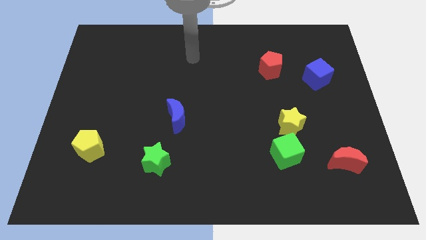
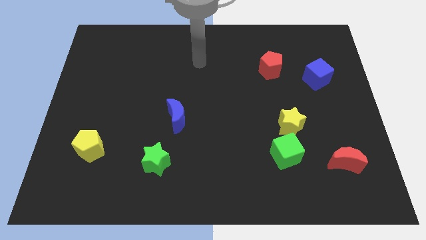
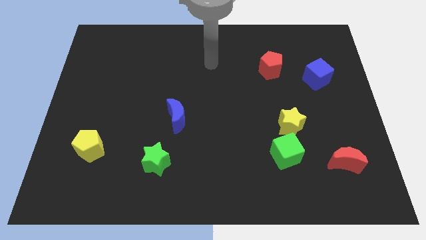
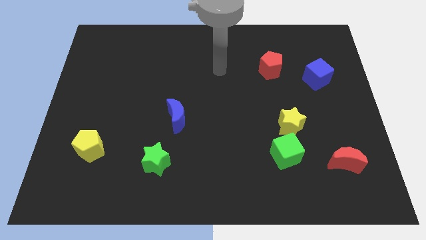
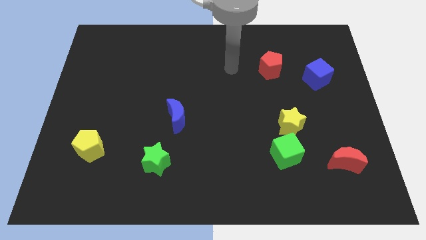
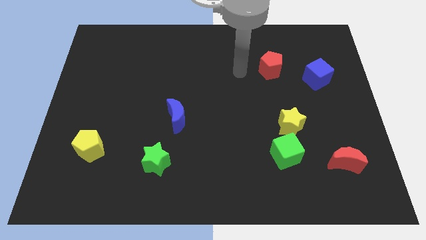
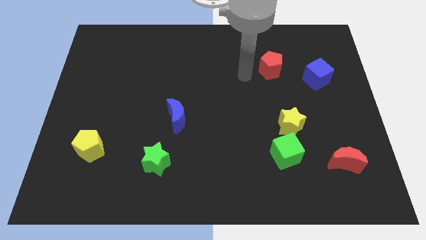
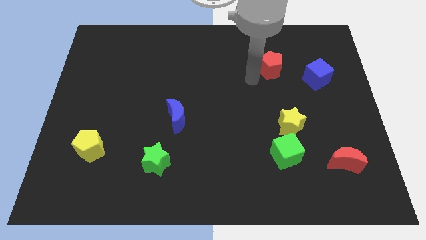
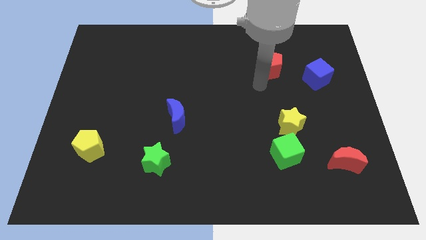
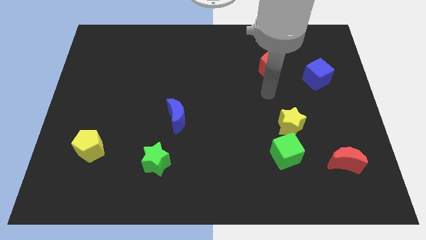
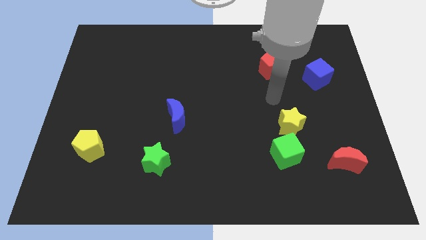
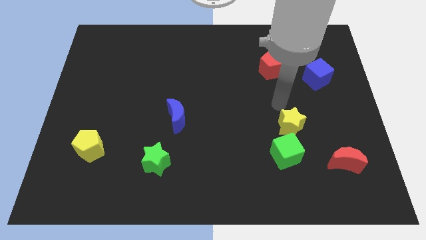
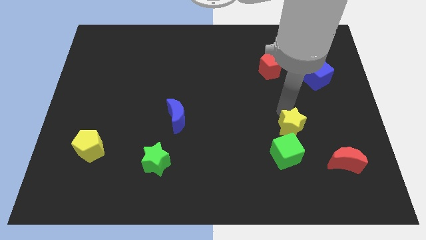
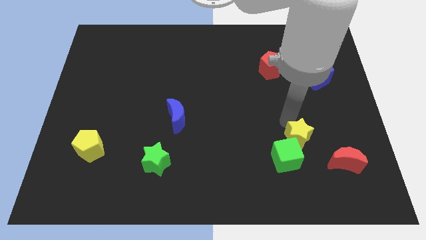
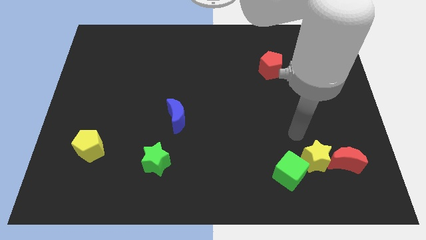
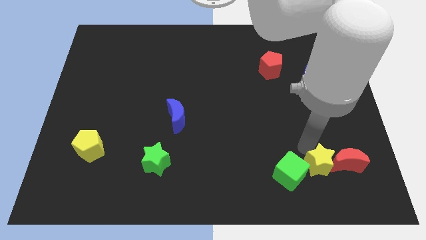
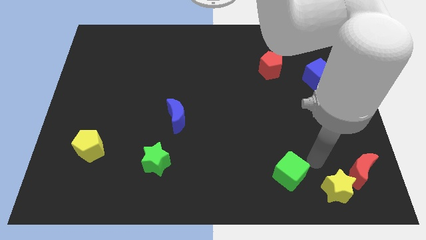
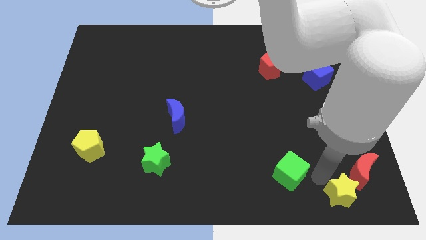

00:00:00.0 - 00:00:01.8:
pull the green cube apart from the yellow star

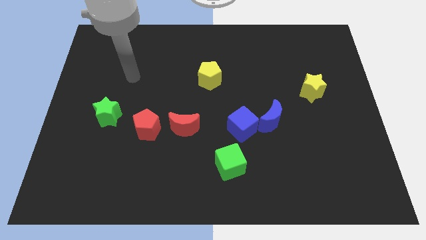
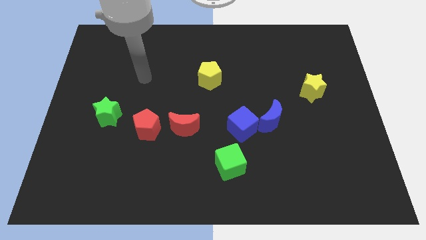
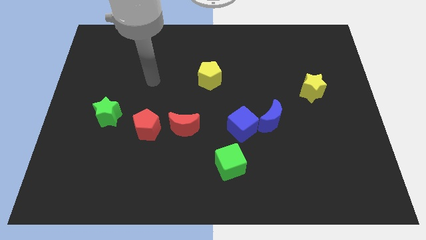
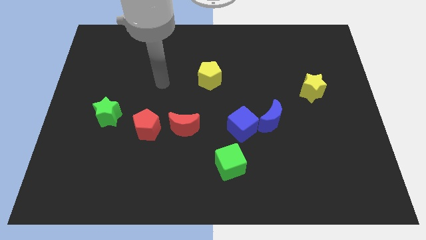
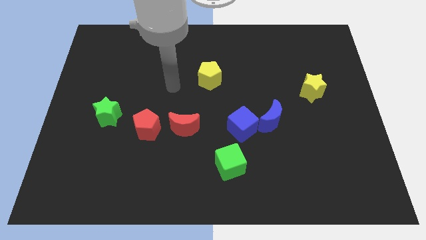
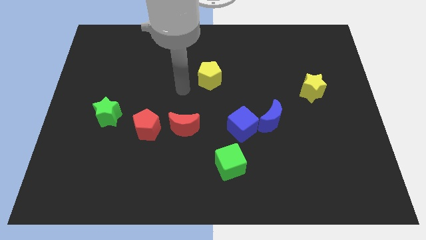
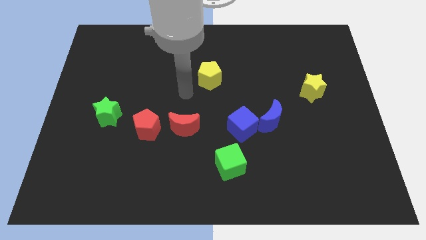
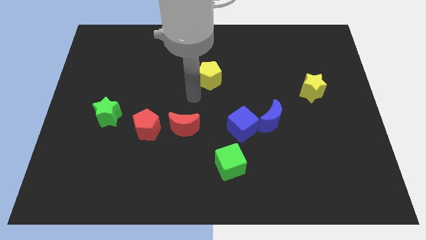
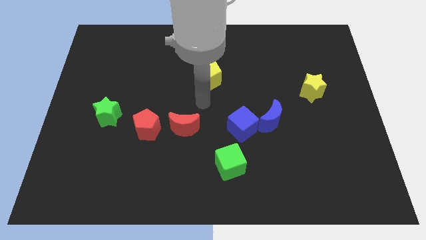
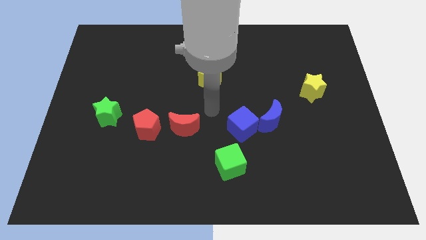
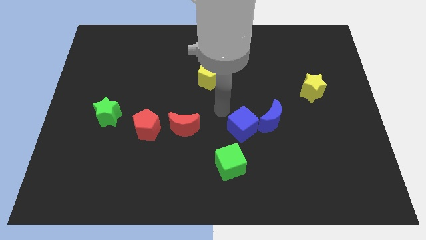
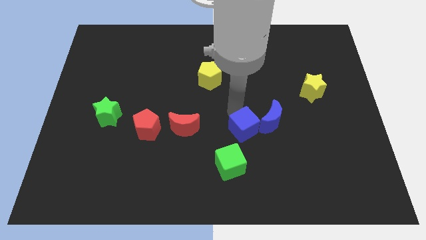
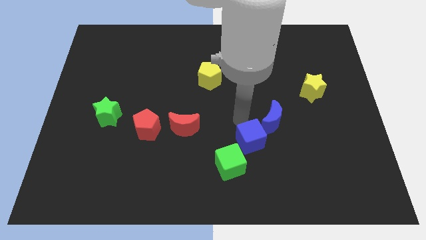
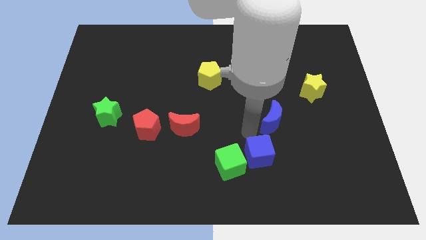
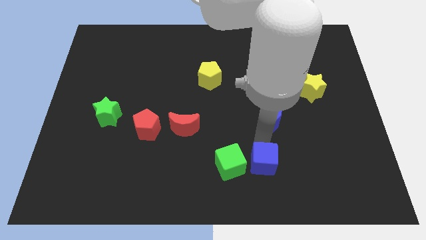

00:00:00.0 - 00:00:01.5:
pull the blue moon apart from the blue cube

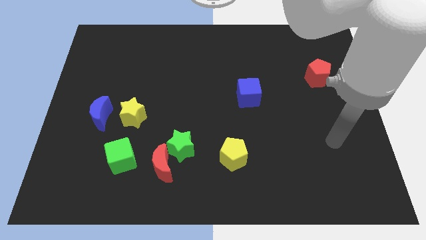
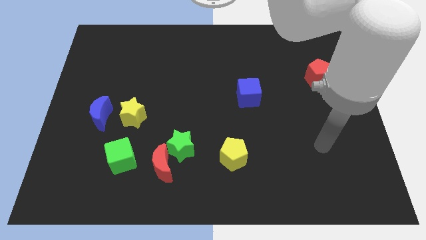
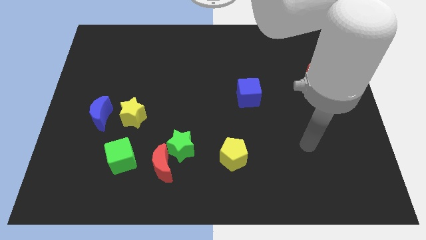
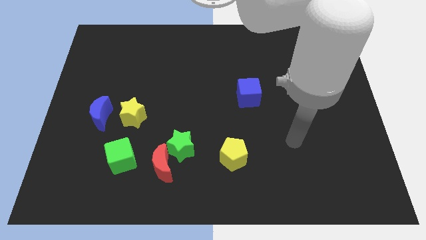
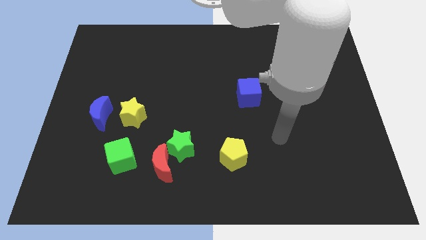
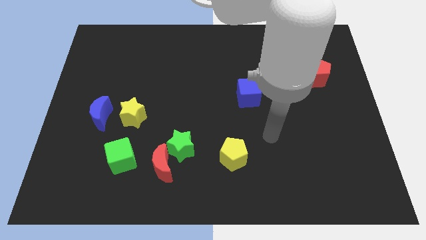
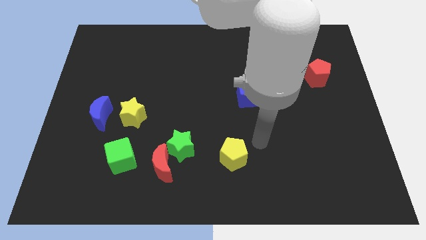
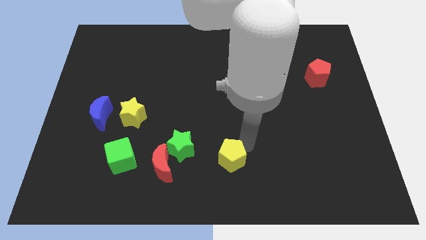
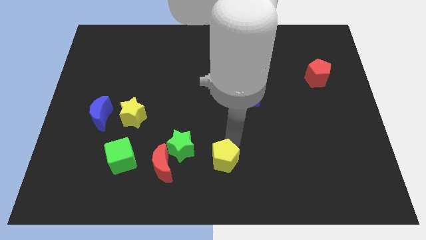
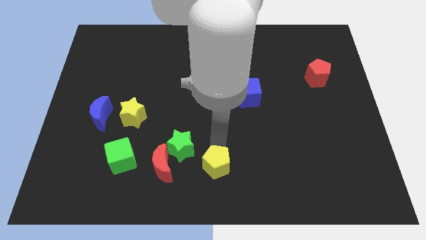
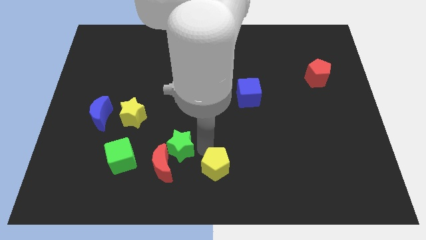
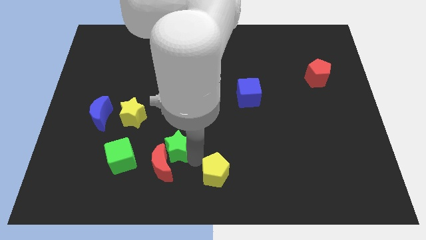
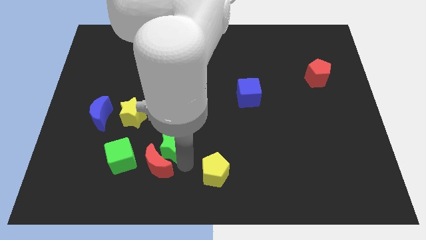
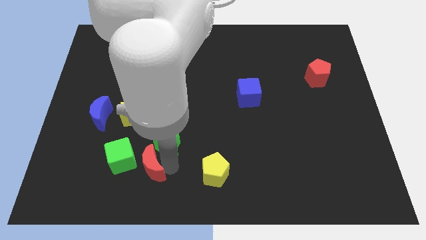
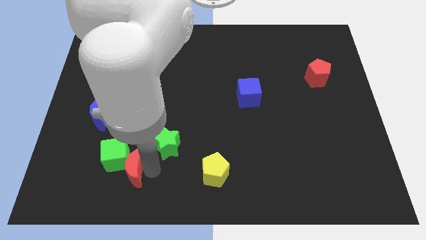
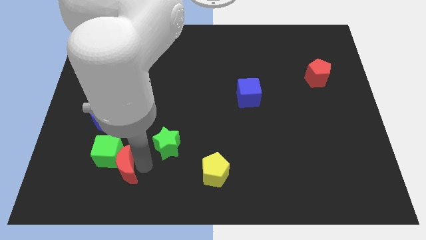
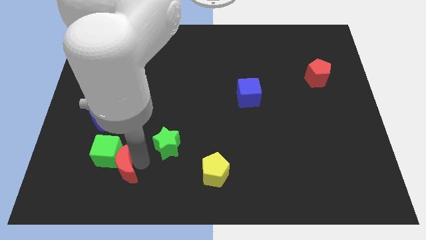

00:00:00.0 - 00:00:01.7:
pull the green star apart from the red moon

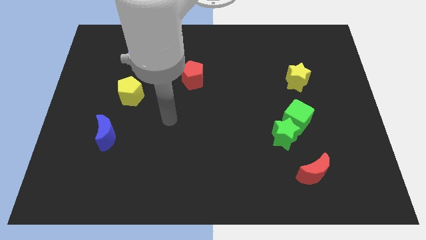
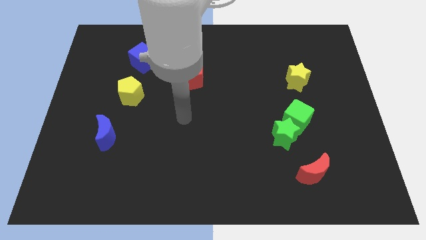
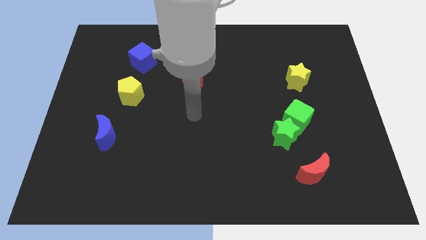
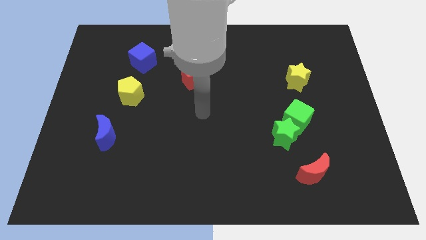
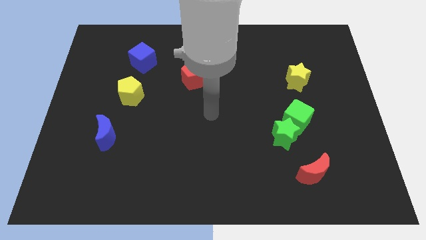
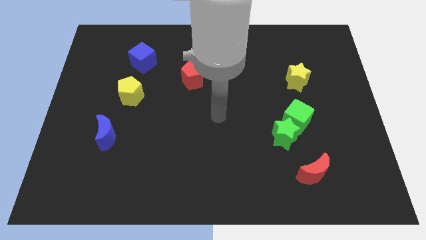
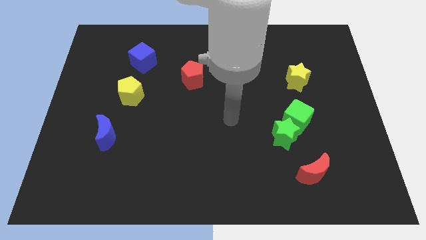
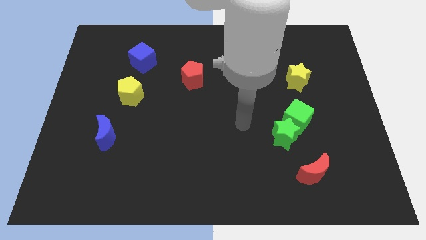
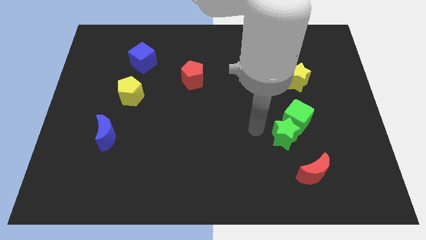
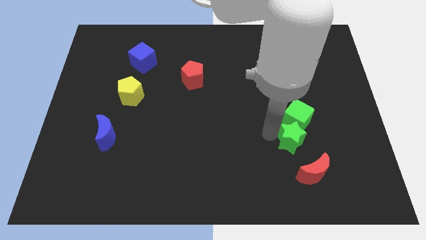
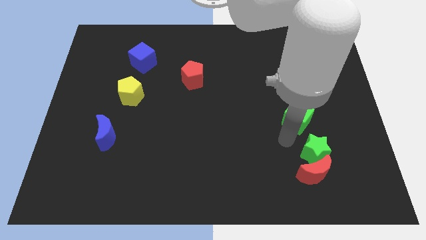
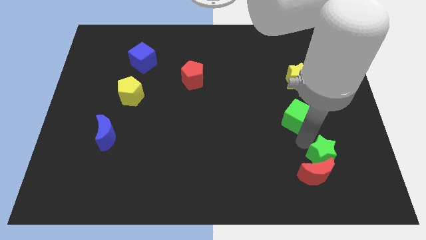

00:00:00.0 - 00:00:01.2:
pull the green cube apart from the green star

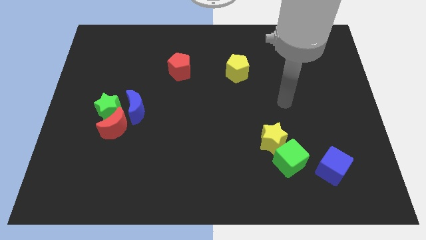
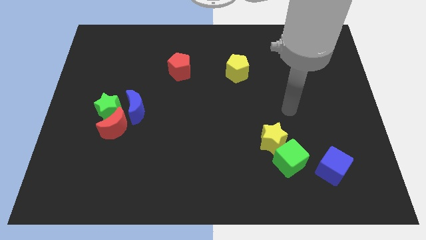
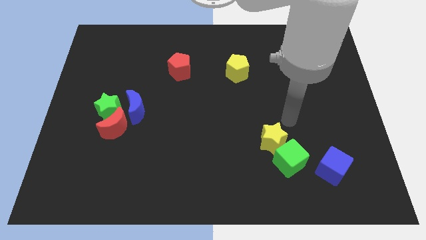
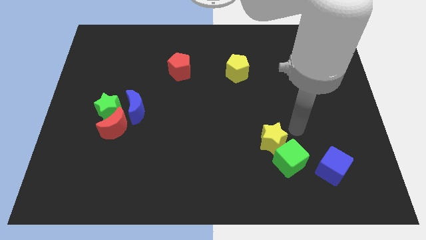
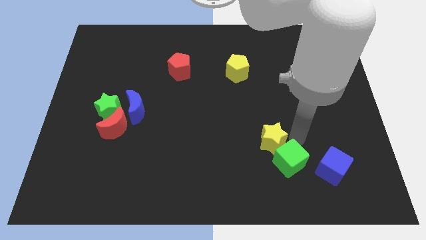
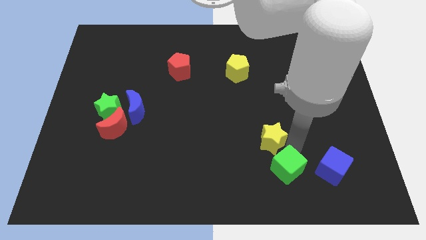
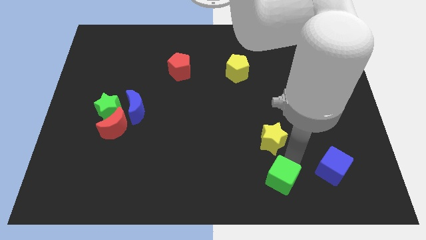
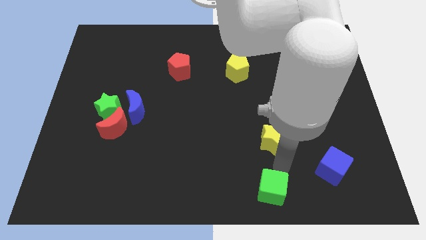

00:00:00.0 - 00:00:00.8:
move the yellow star away from the green cube

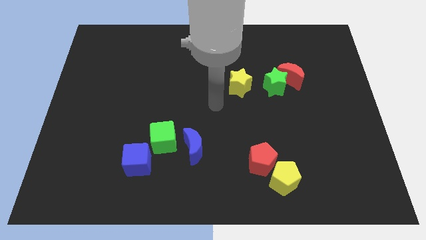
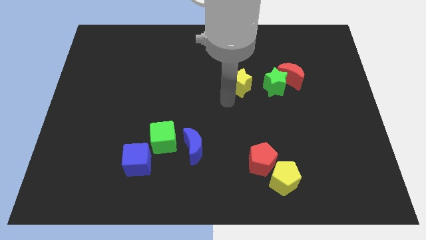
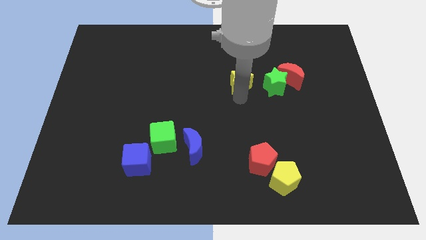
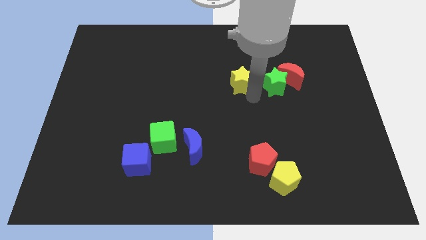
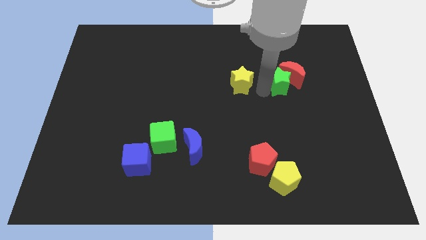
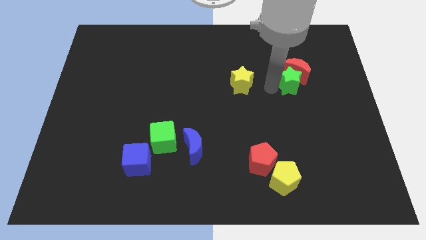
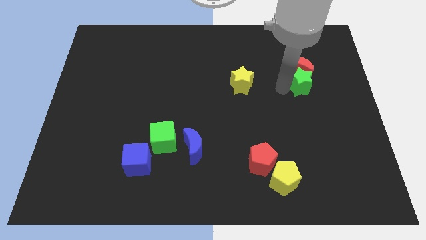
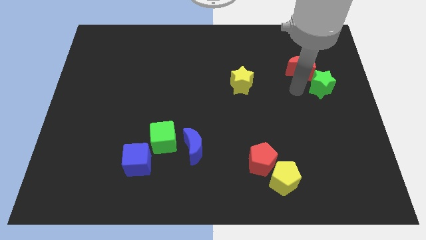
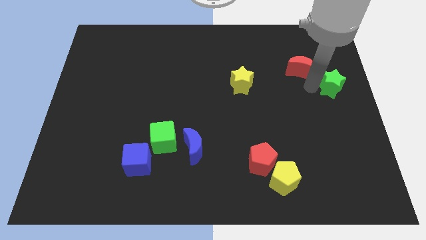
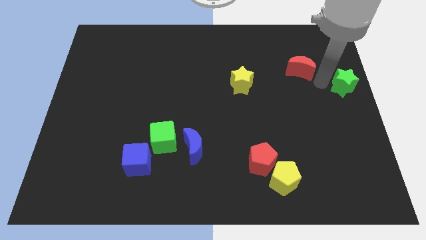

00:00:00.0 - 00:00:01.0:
pull the red moon apart from the green star

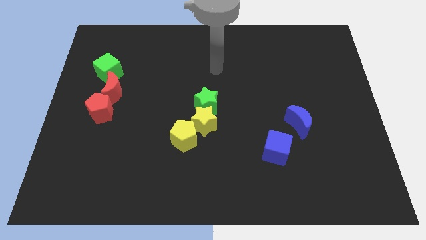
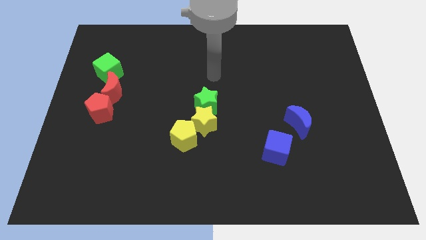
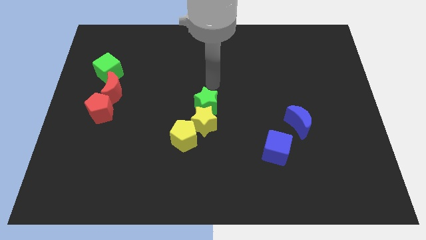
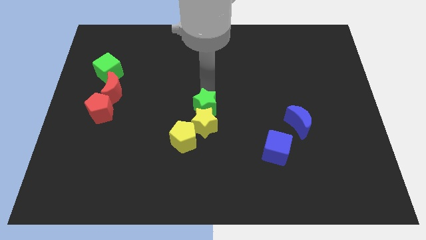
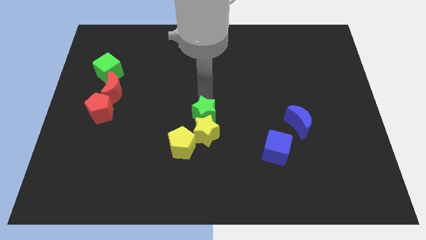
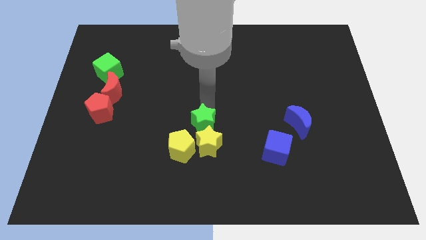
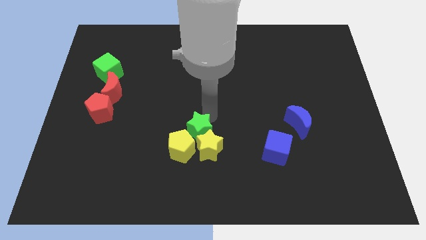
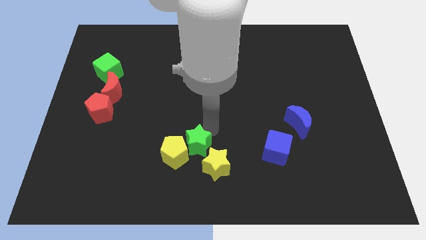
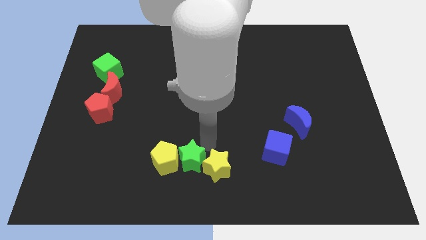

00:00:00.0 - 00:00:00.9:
separate the yellow pentagon from the yellow star

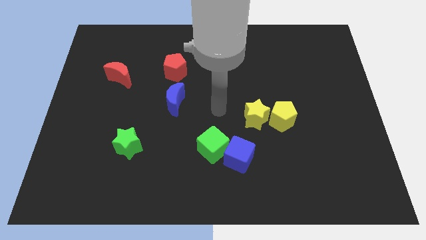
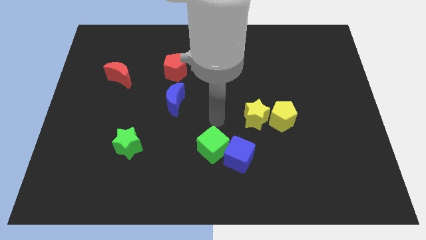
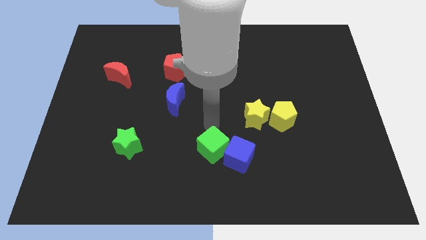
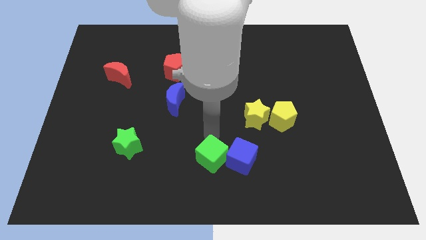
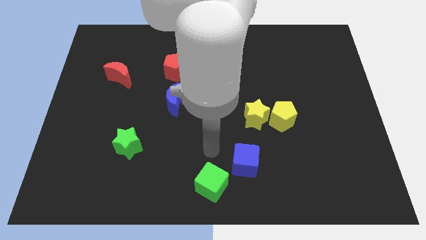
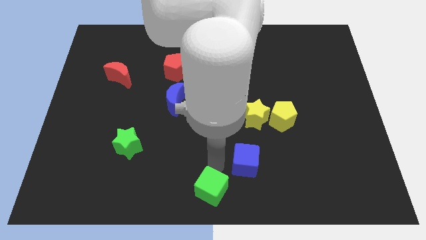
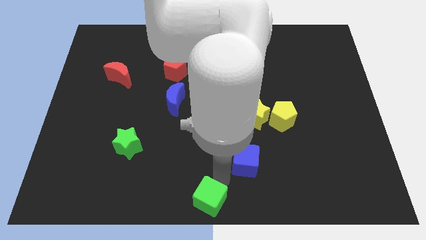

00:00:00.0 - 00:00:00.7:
move the blue cube away from the green cube
